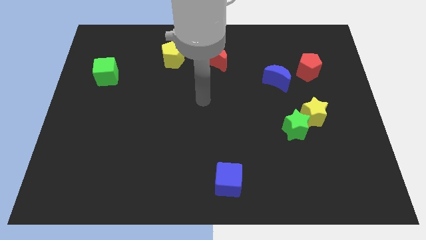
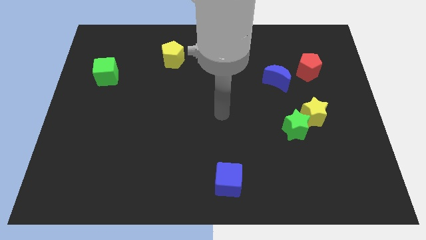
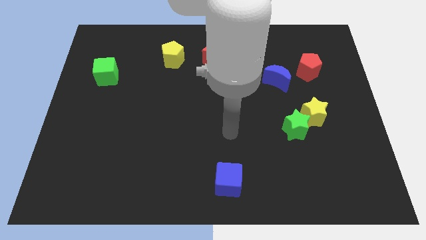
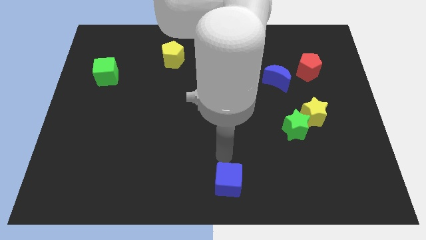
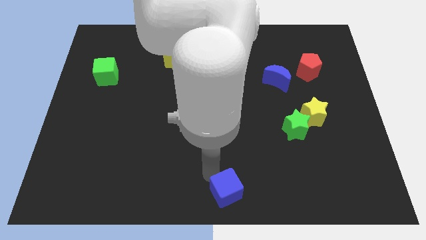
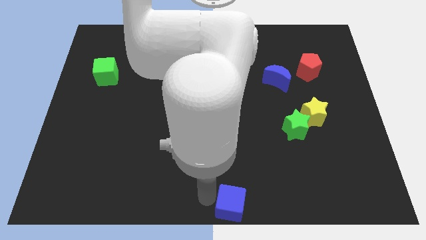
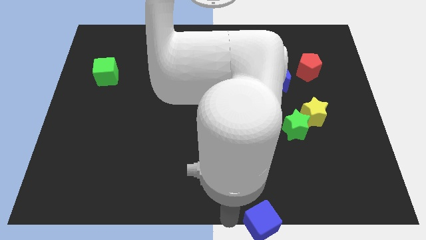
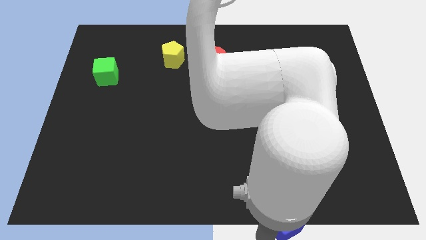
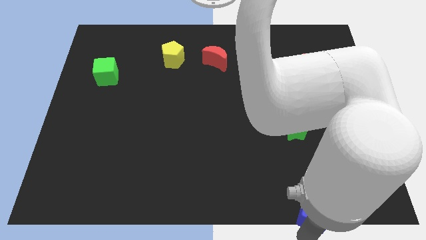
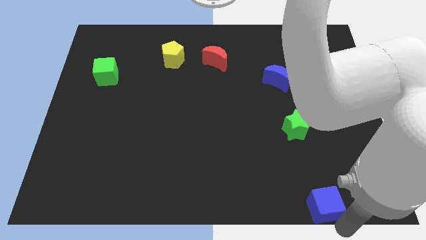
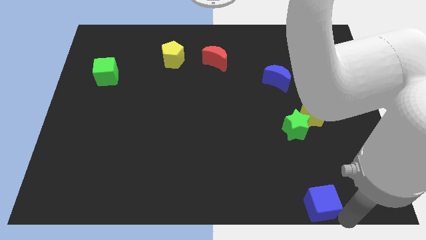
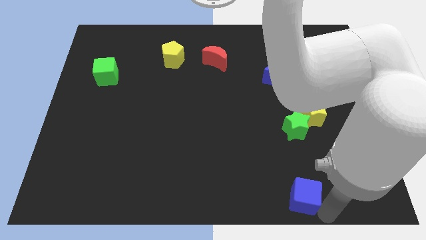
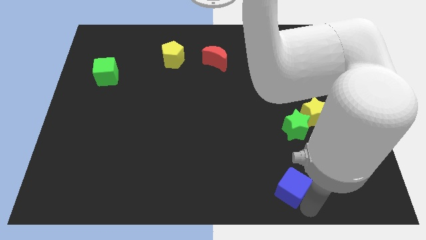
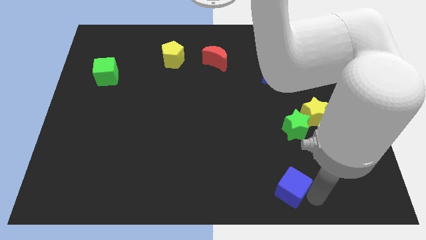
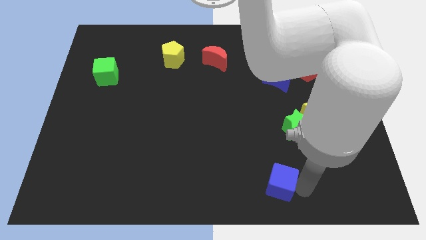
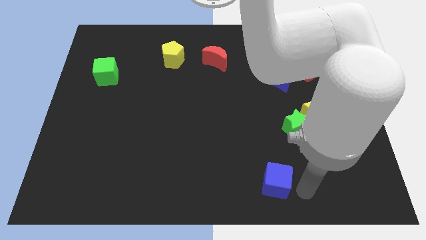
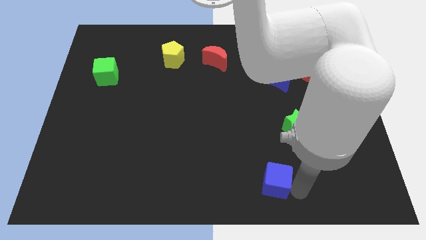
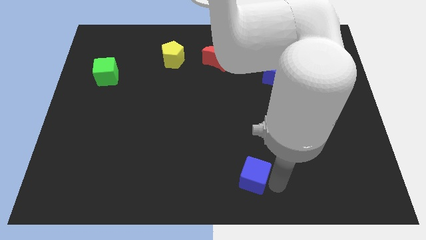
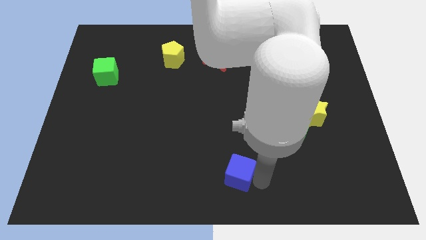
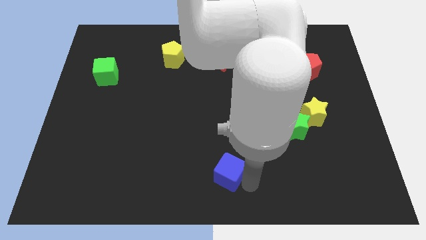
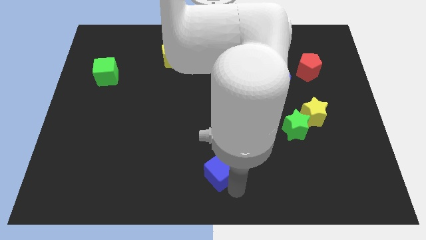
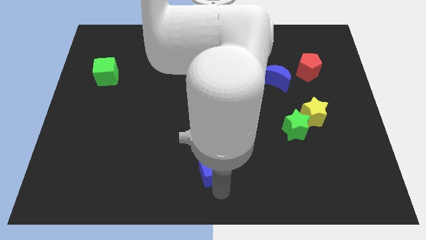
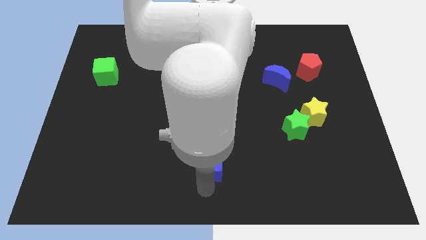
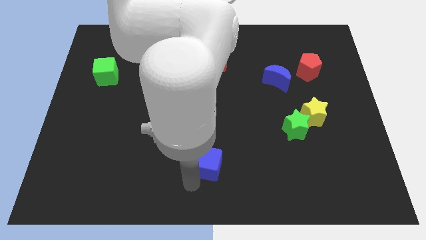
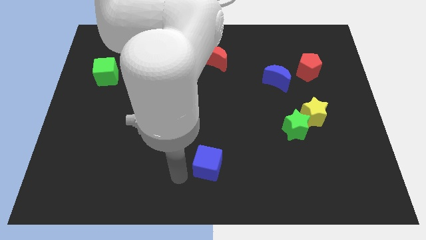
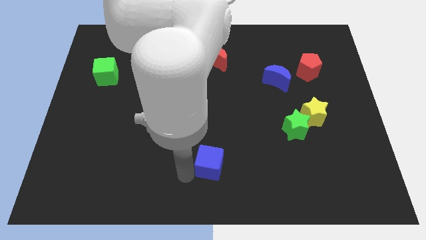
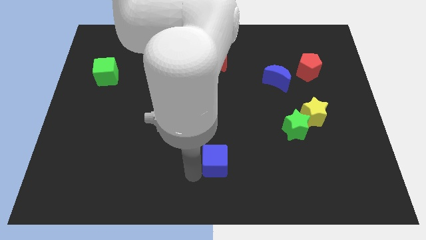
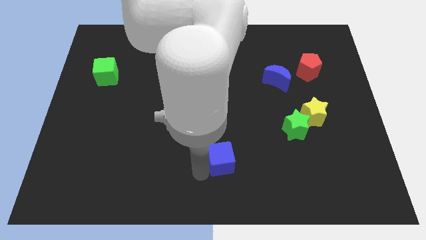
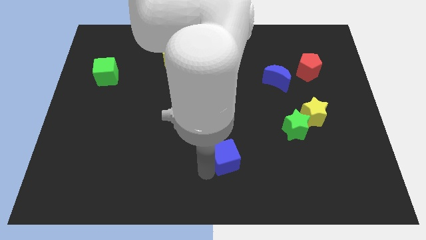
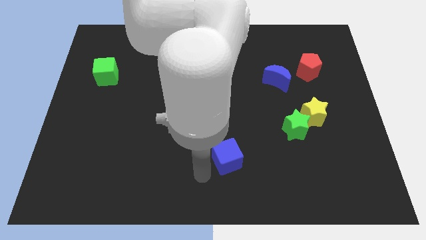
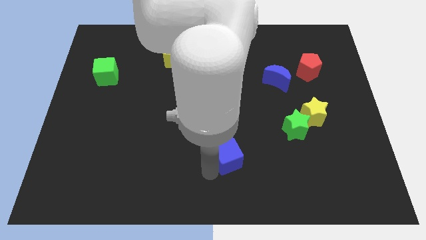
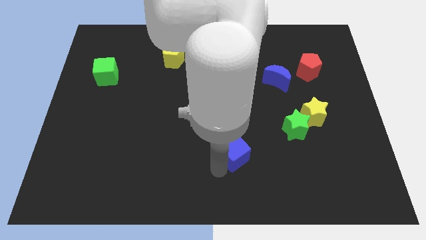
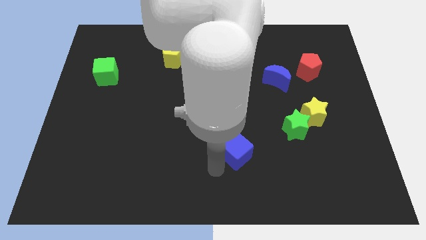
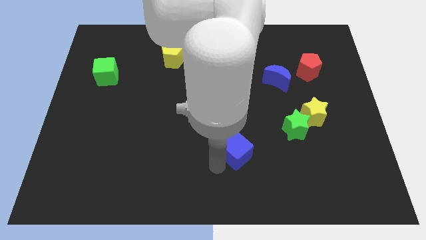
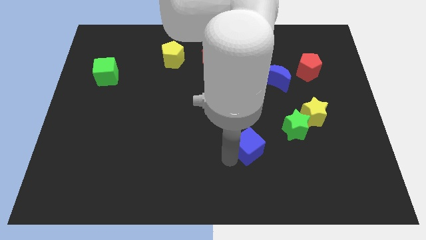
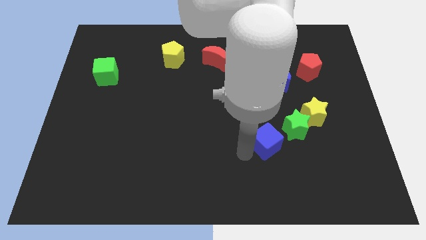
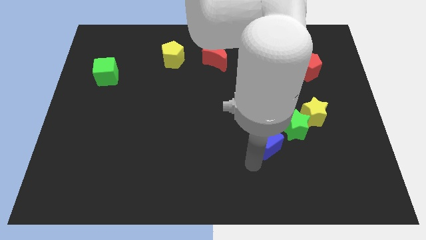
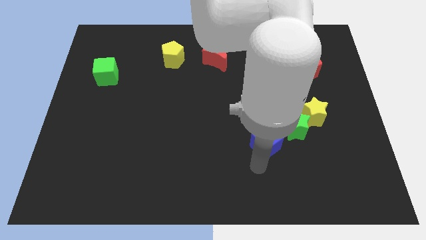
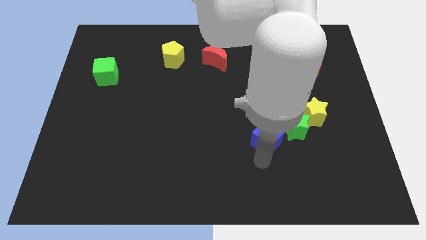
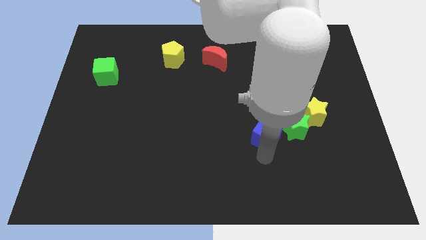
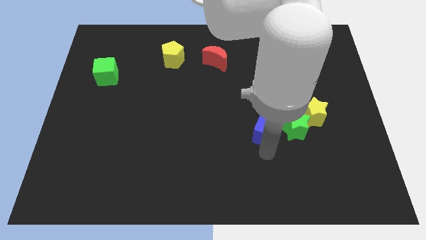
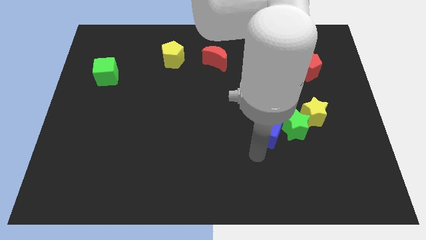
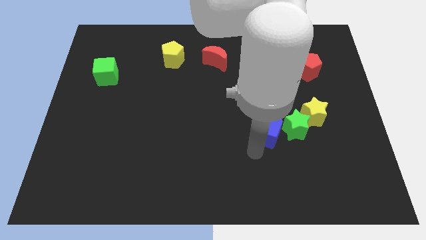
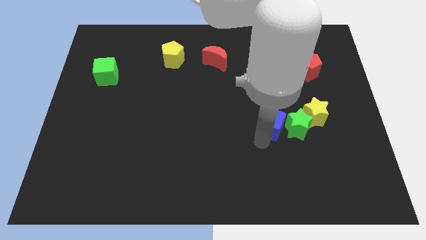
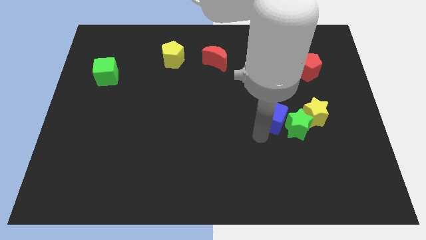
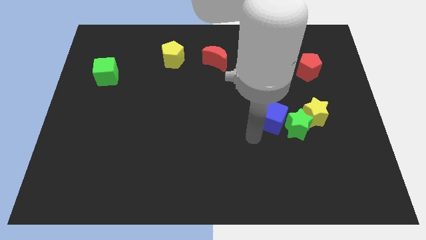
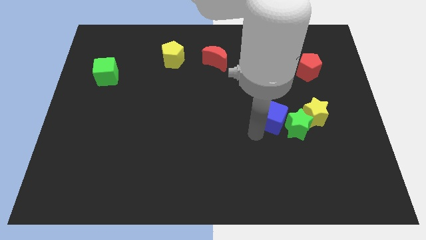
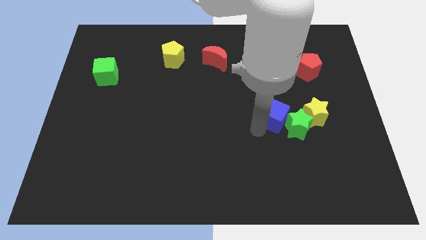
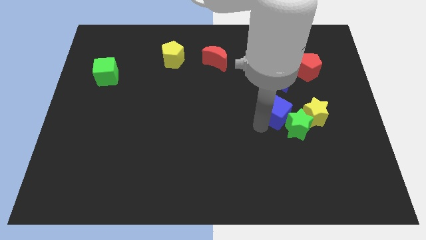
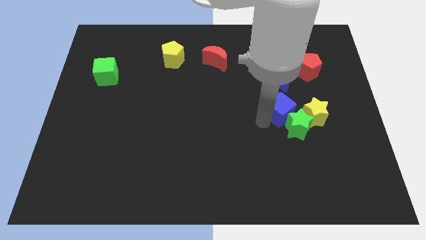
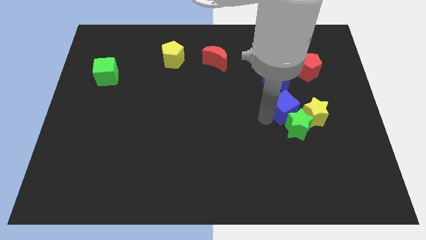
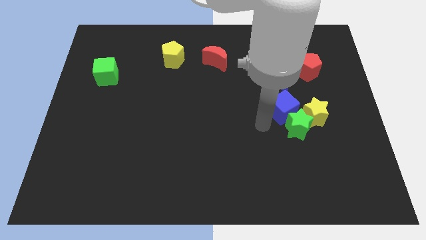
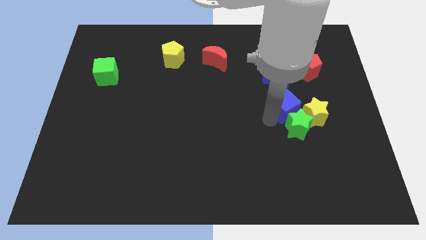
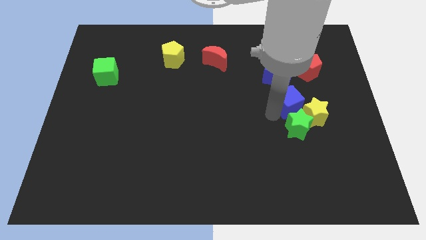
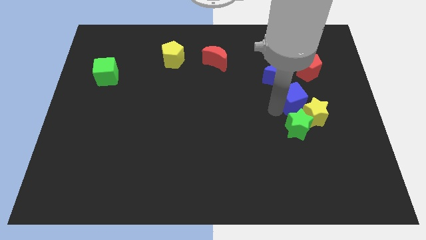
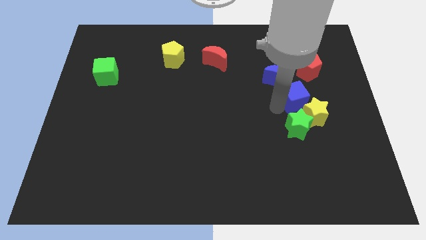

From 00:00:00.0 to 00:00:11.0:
push the blue cube below the red pentagon

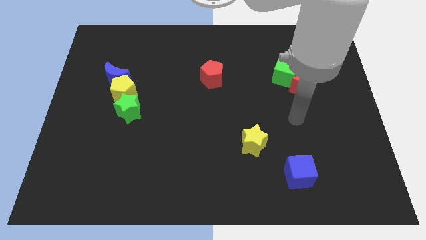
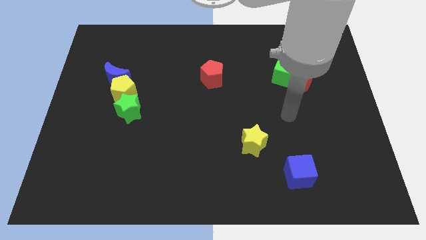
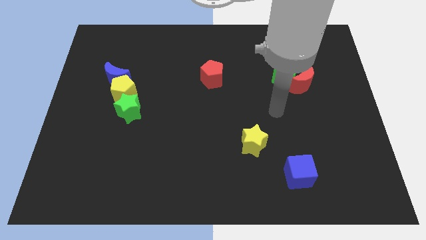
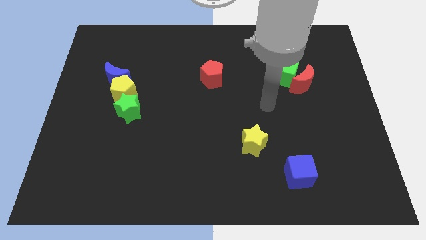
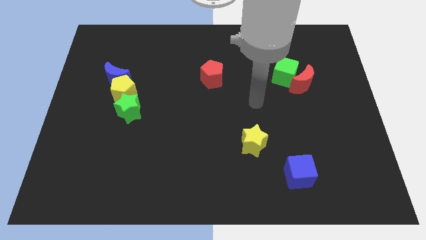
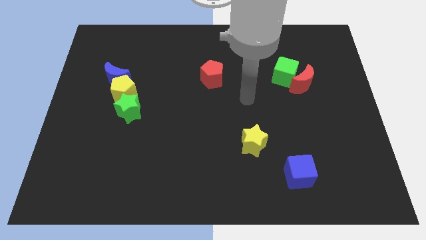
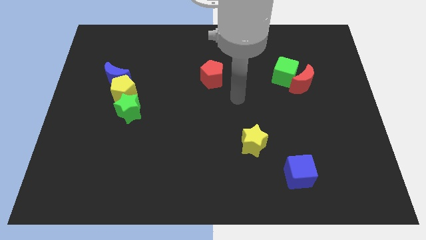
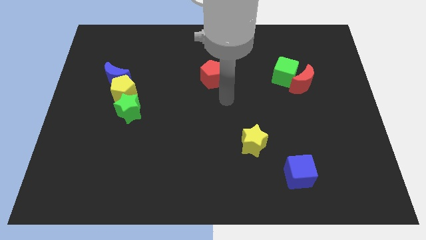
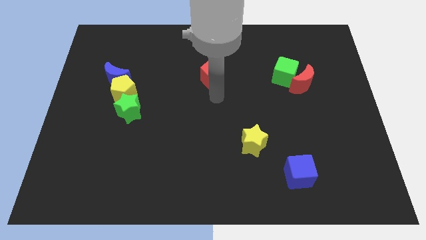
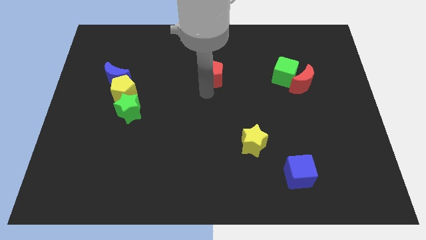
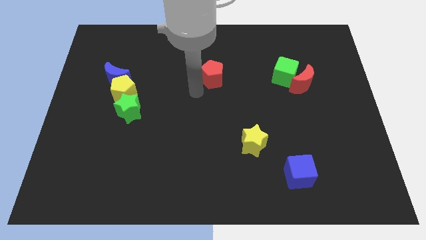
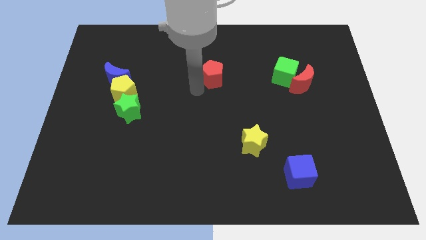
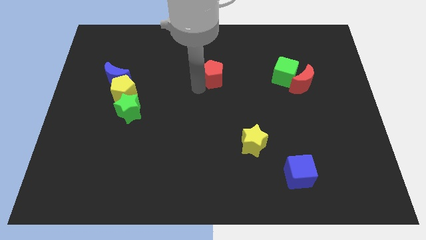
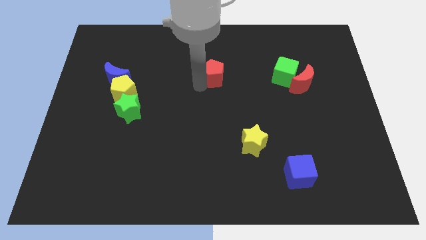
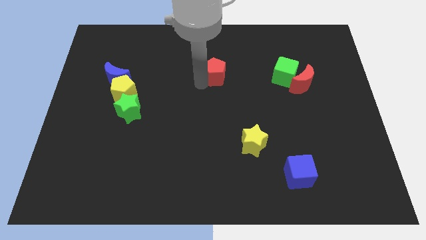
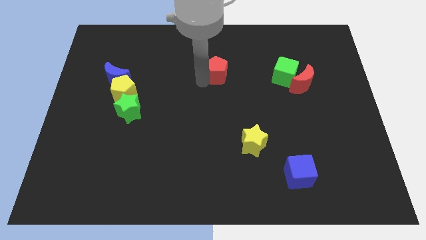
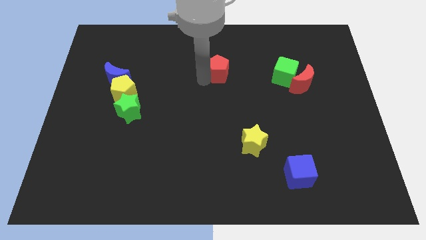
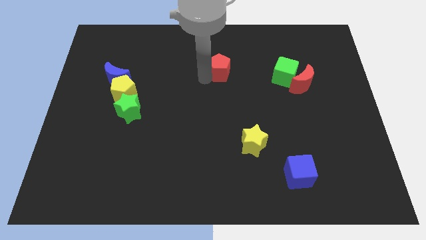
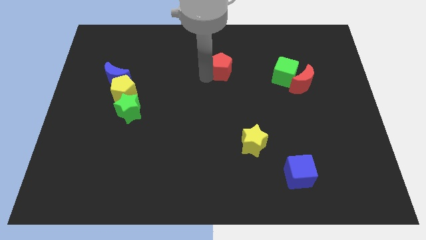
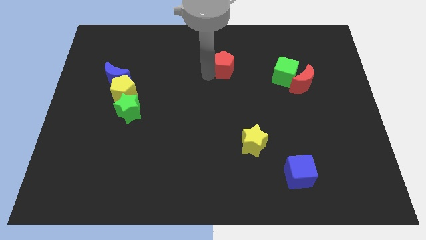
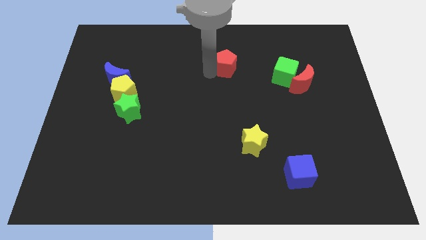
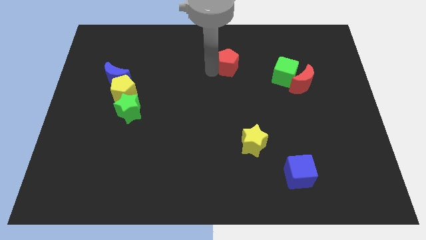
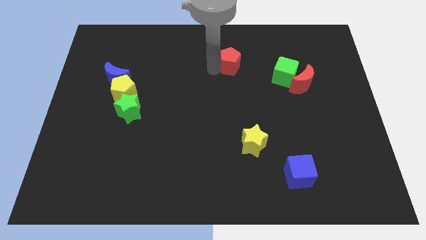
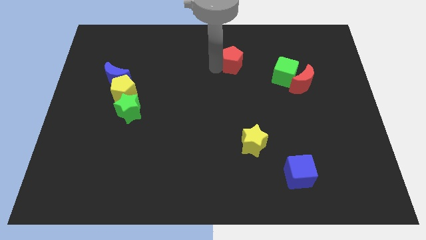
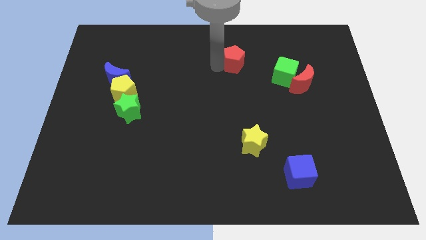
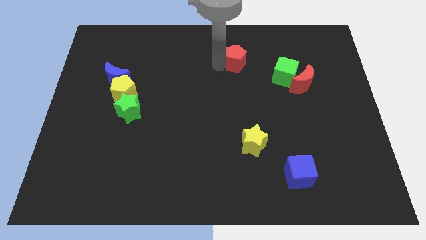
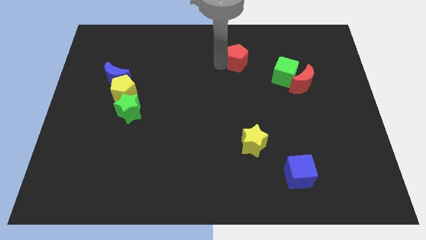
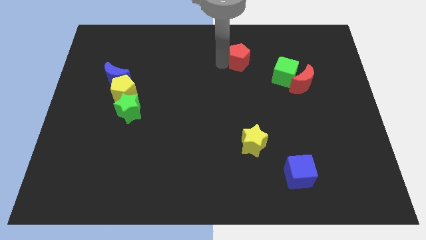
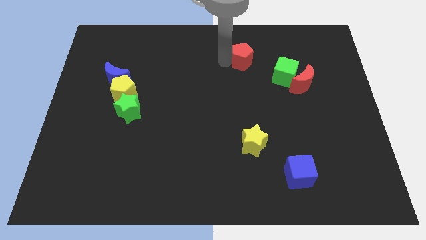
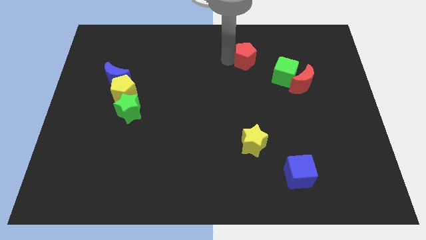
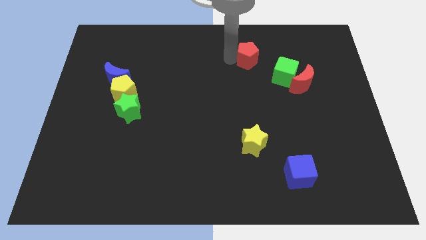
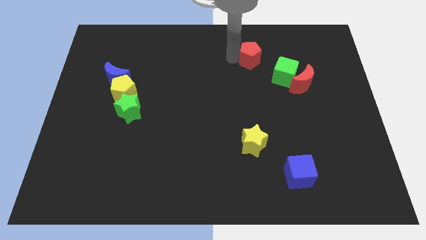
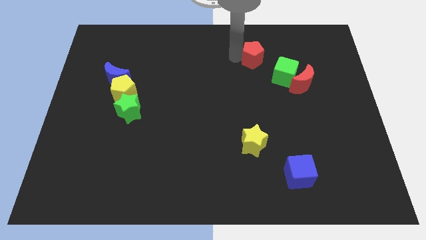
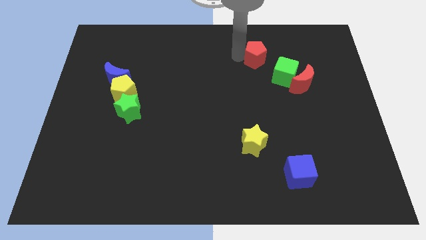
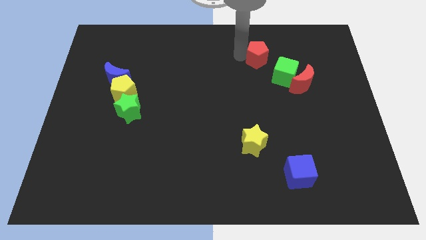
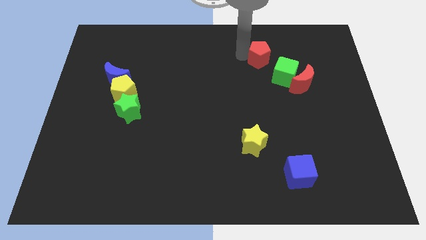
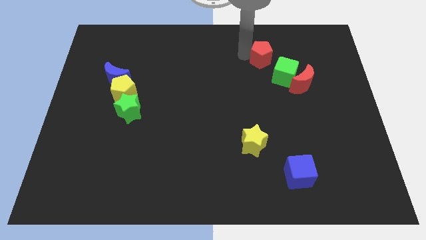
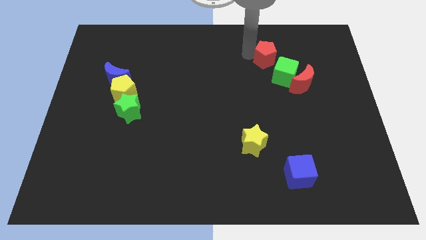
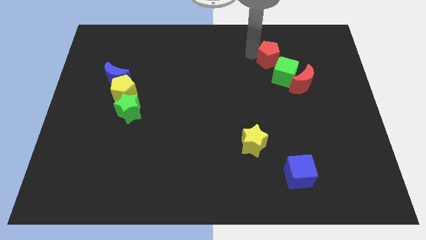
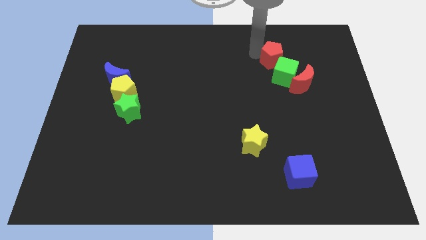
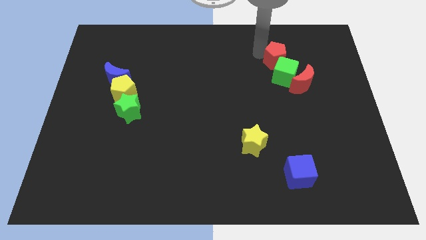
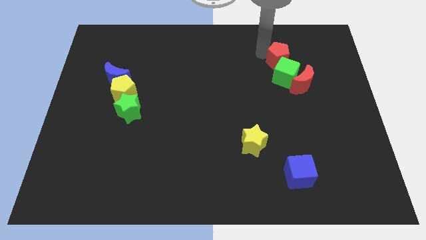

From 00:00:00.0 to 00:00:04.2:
move the red pentagon to the top right of the green cube
